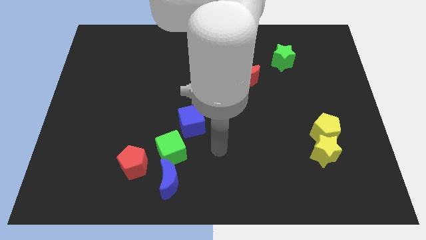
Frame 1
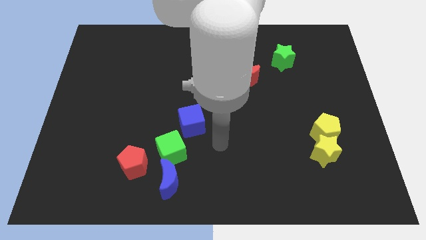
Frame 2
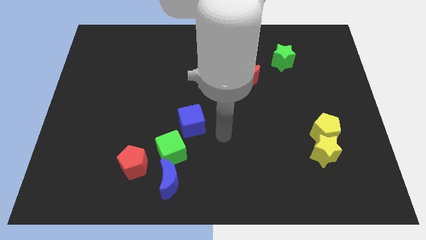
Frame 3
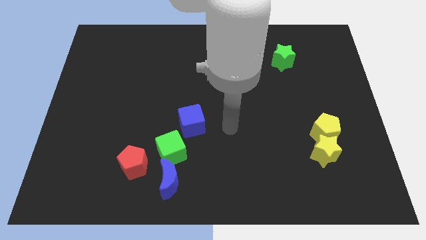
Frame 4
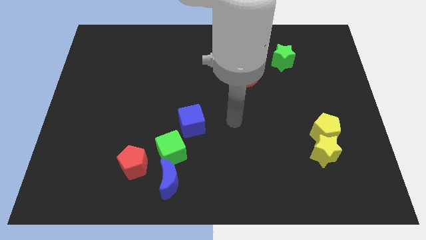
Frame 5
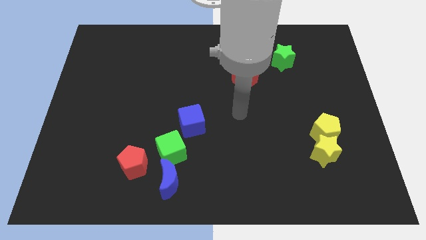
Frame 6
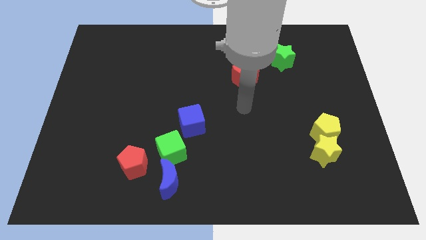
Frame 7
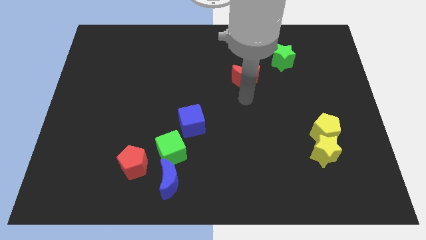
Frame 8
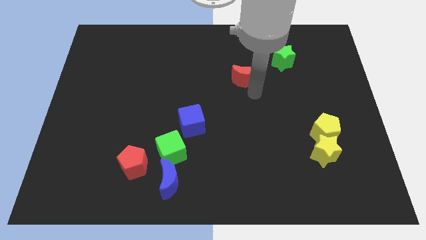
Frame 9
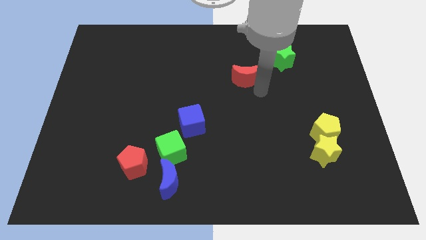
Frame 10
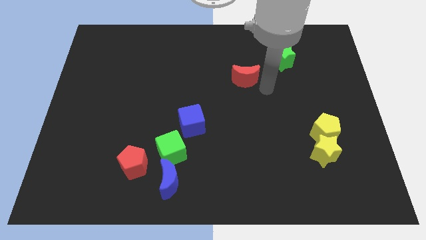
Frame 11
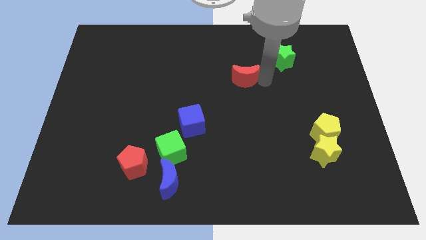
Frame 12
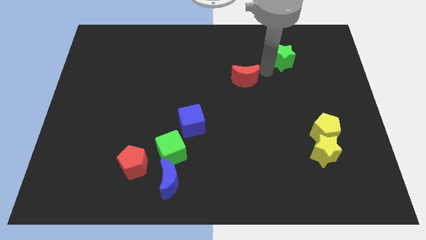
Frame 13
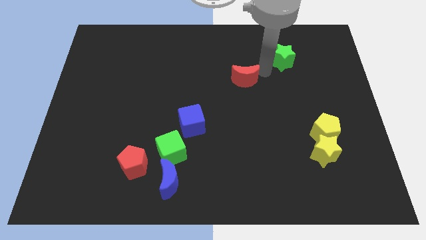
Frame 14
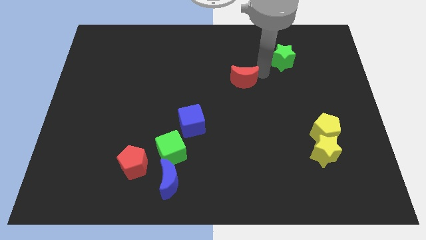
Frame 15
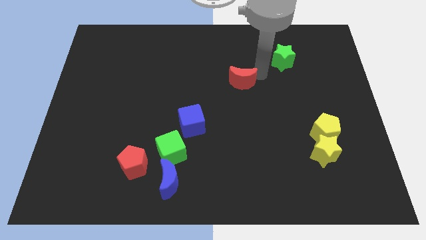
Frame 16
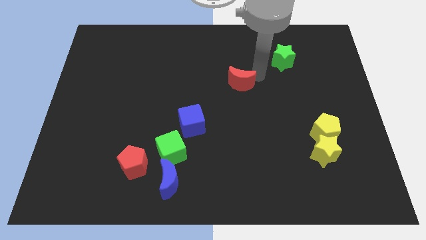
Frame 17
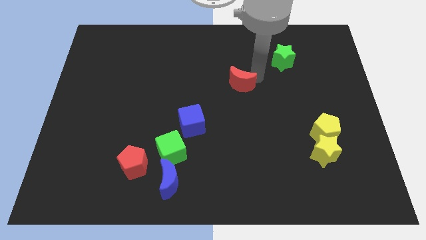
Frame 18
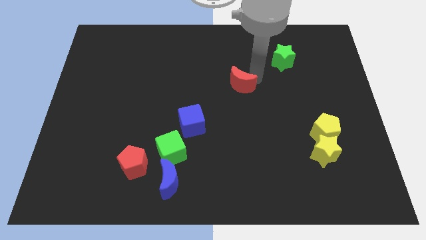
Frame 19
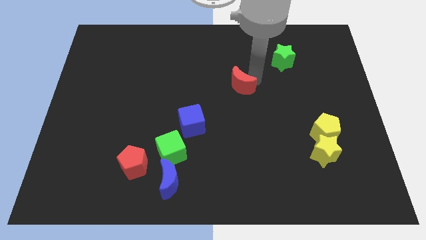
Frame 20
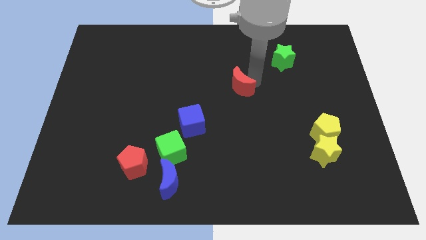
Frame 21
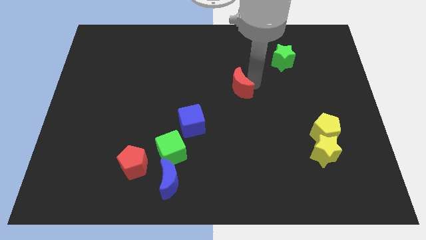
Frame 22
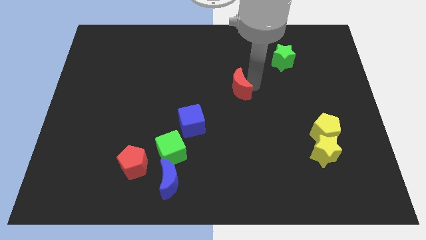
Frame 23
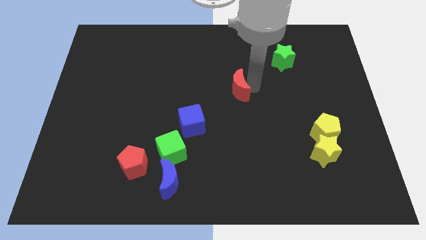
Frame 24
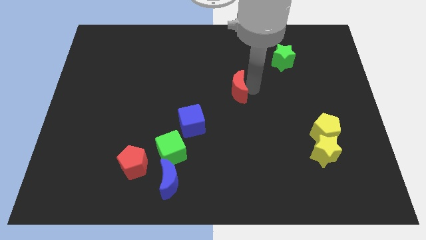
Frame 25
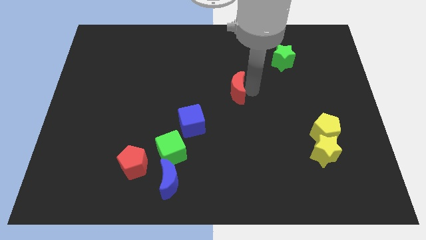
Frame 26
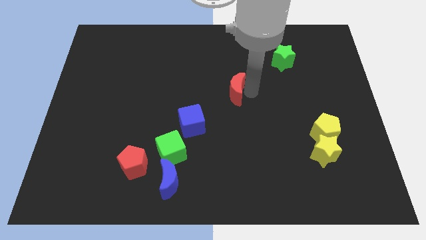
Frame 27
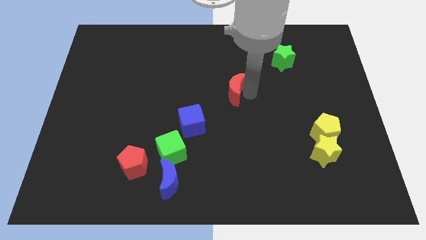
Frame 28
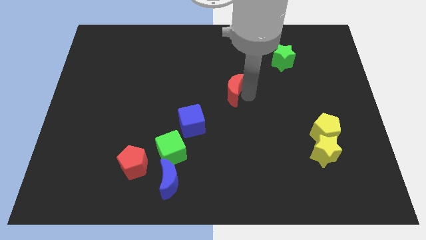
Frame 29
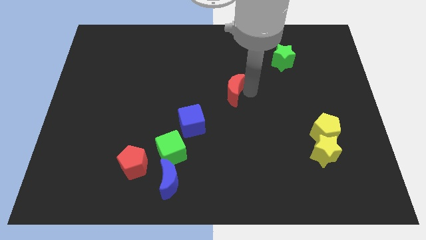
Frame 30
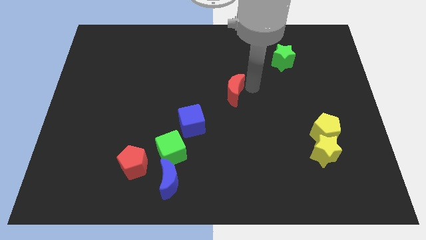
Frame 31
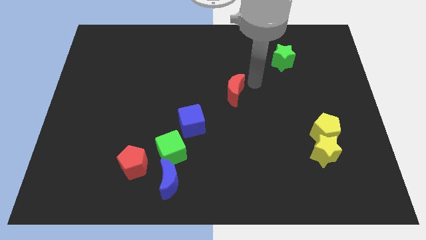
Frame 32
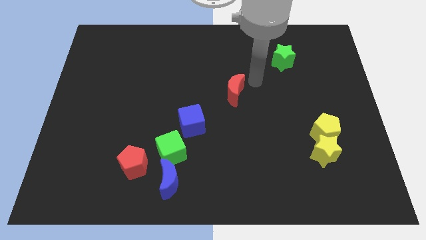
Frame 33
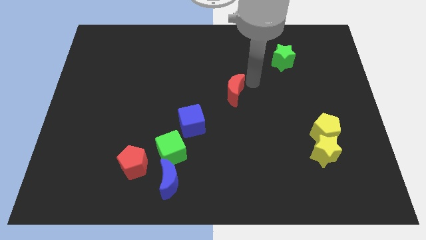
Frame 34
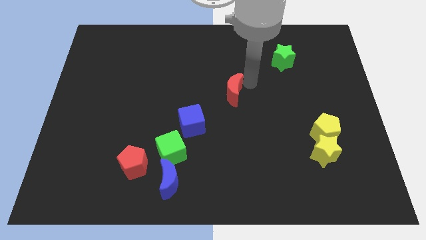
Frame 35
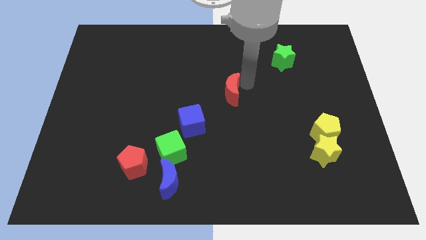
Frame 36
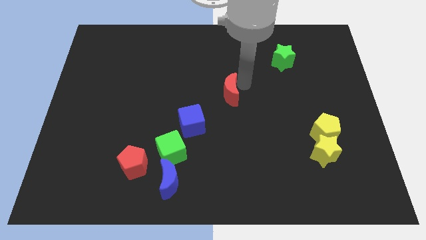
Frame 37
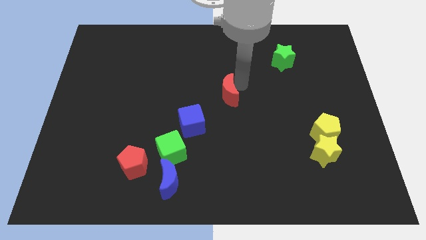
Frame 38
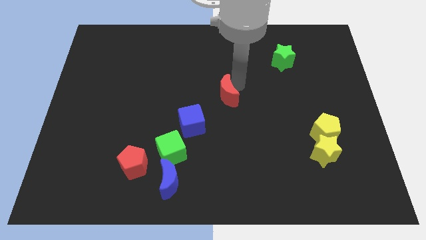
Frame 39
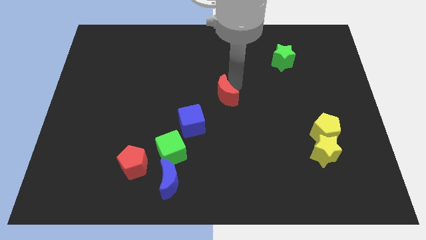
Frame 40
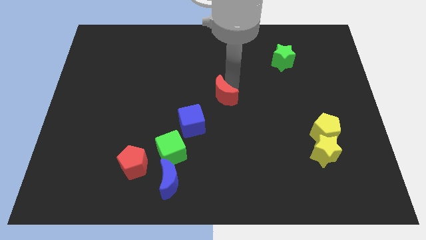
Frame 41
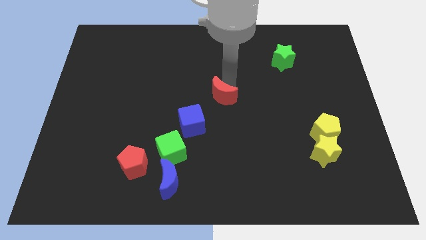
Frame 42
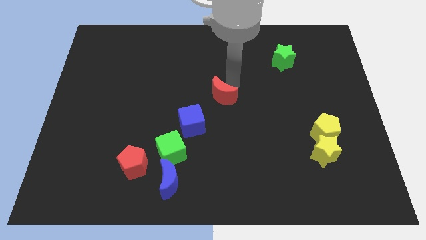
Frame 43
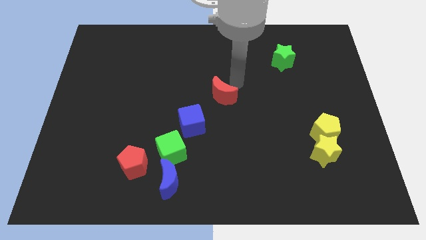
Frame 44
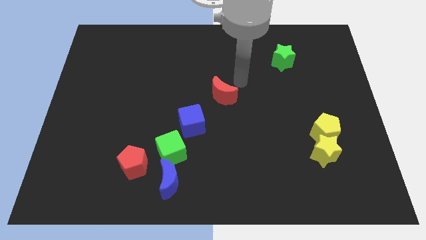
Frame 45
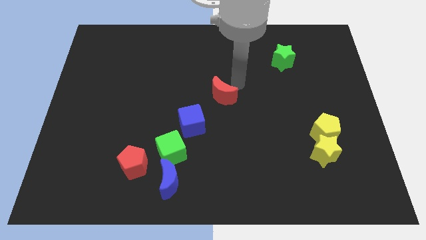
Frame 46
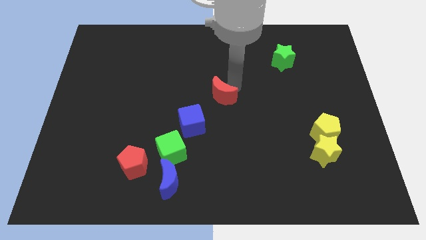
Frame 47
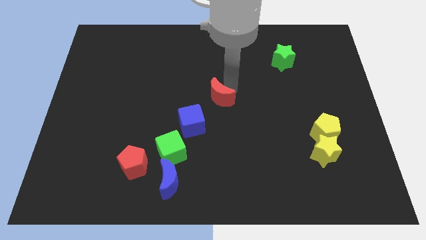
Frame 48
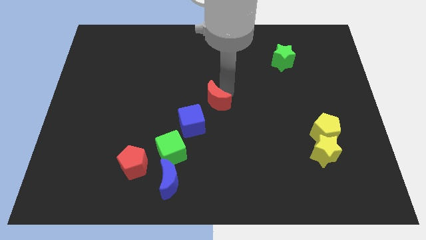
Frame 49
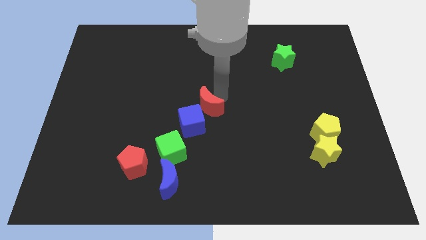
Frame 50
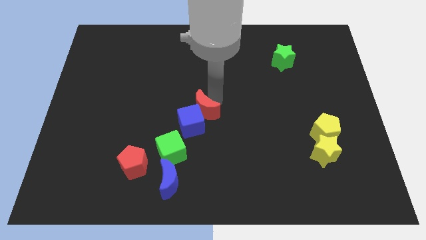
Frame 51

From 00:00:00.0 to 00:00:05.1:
slide the red moon to the blue cube

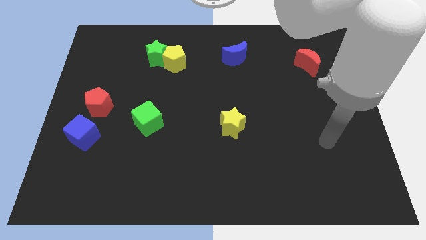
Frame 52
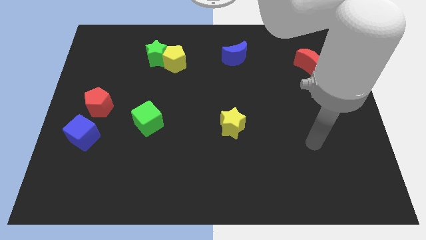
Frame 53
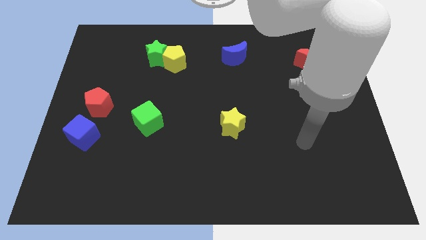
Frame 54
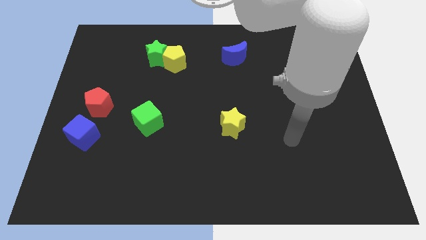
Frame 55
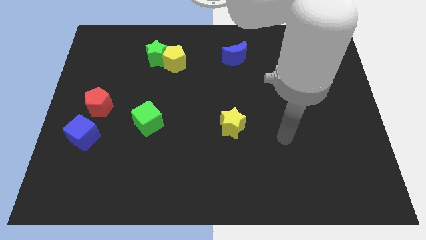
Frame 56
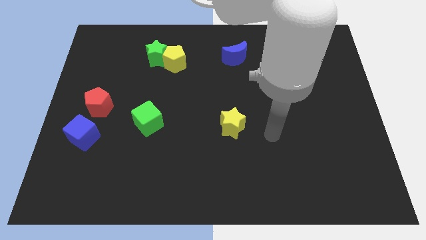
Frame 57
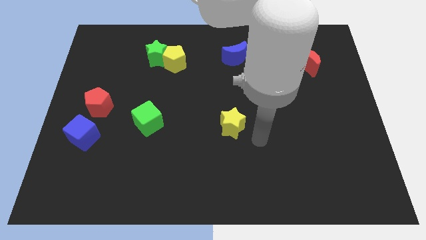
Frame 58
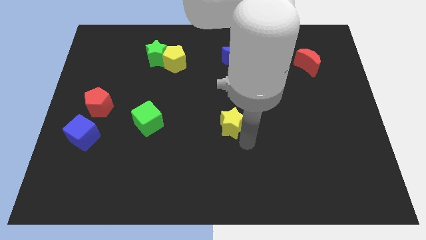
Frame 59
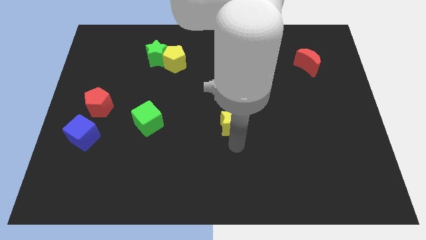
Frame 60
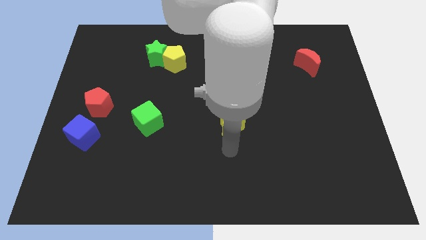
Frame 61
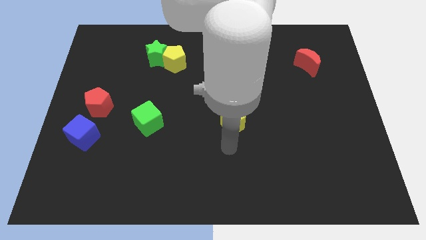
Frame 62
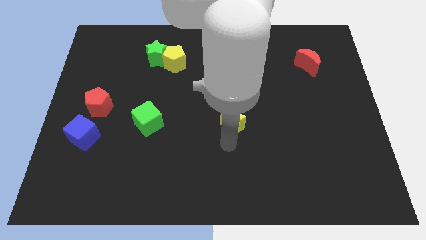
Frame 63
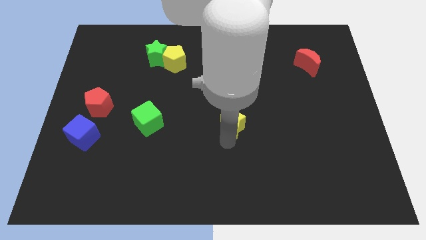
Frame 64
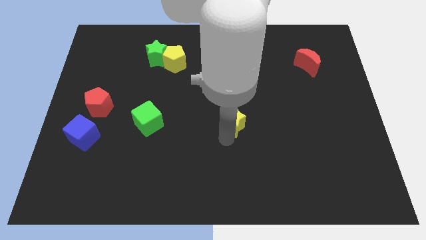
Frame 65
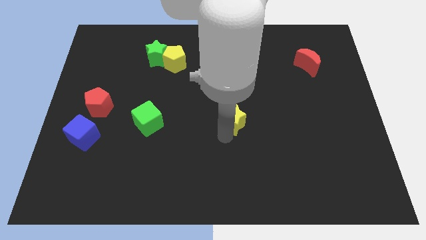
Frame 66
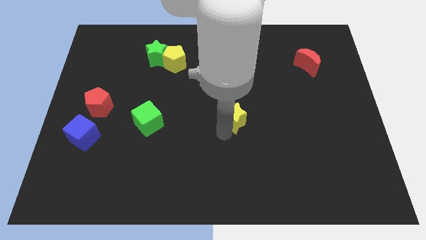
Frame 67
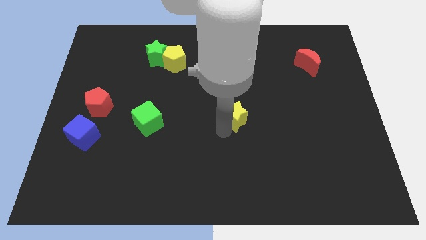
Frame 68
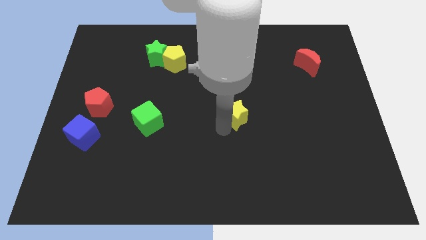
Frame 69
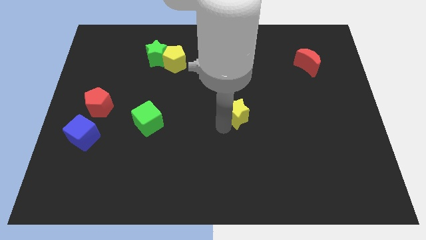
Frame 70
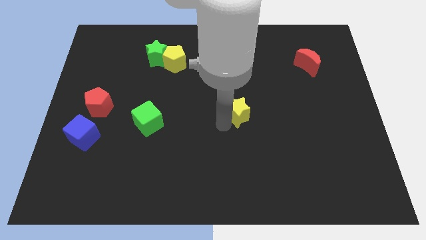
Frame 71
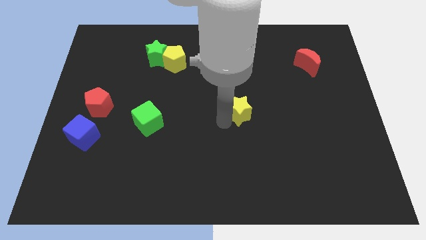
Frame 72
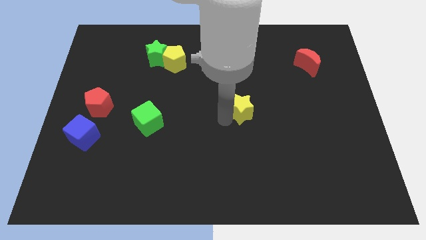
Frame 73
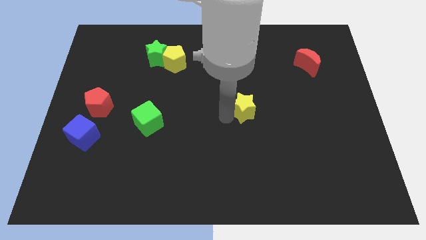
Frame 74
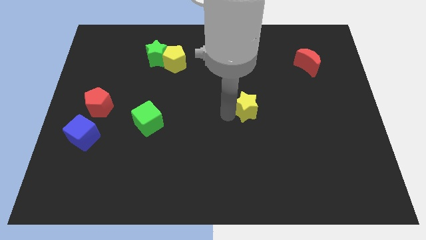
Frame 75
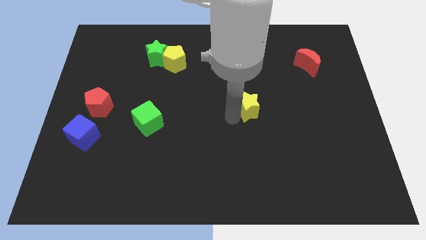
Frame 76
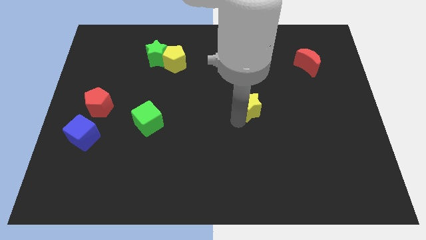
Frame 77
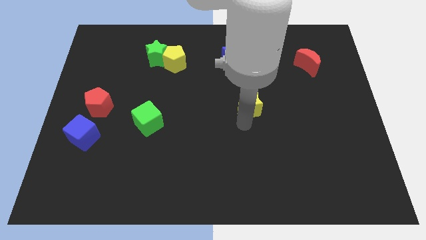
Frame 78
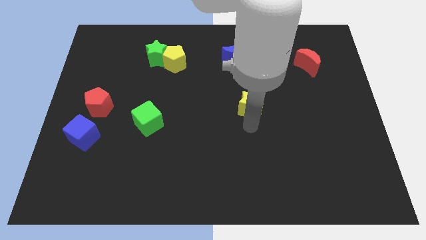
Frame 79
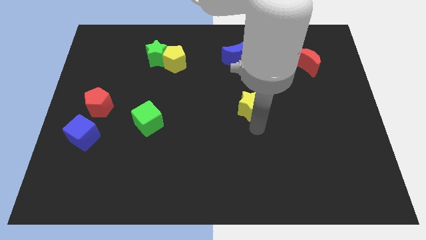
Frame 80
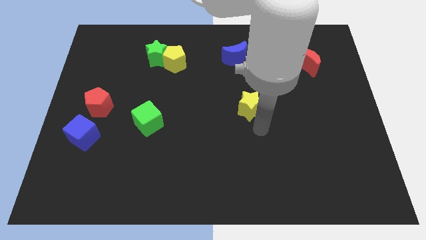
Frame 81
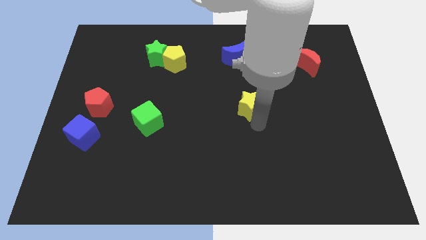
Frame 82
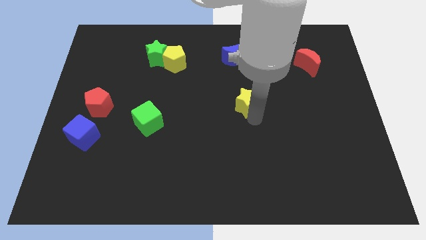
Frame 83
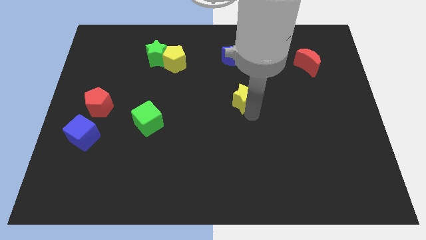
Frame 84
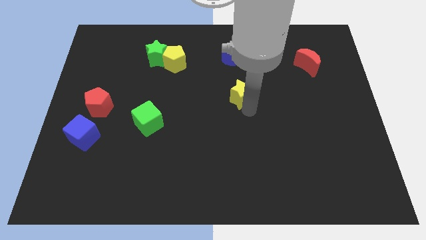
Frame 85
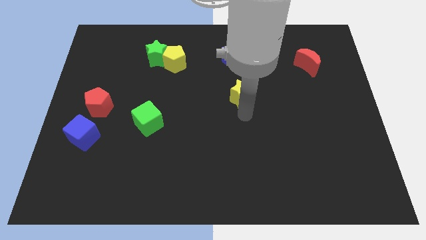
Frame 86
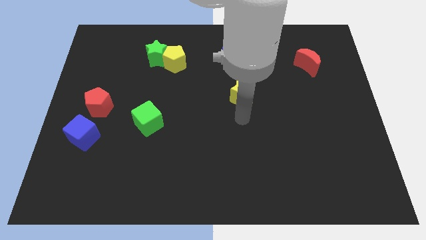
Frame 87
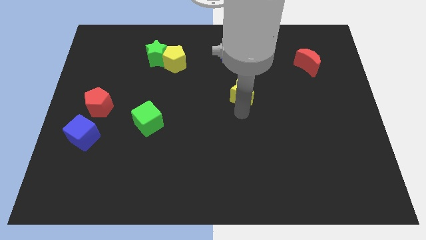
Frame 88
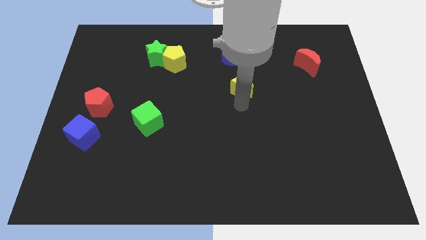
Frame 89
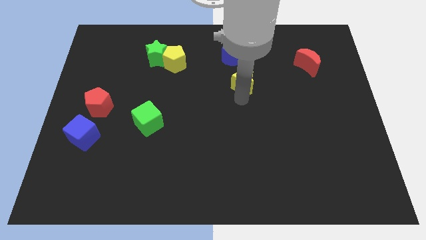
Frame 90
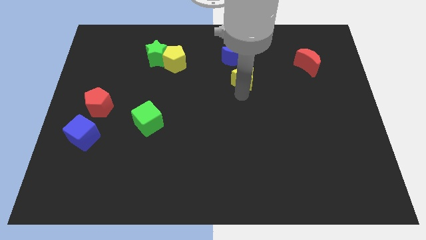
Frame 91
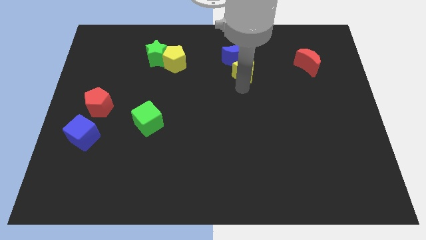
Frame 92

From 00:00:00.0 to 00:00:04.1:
push the yellow star next to the blue moon
